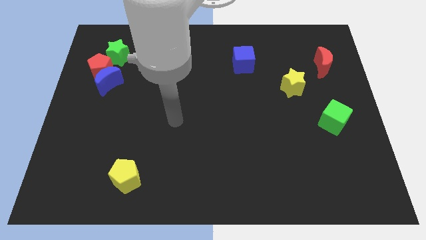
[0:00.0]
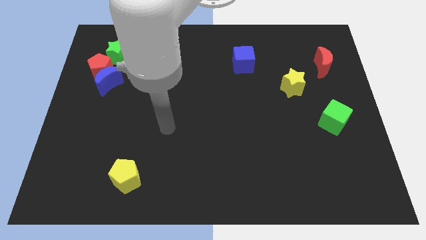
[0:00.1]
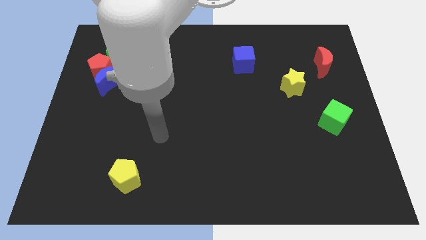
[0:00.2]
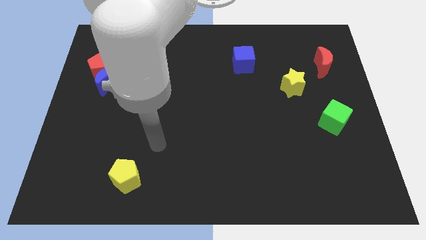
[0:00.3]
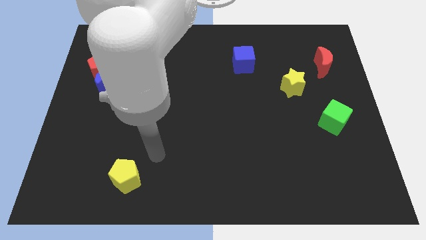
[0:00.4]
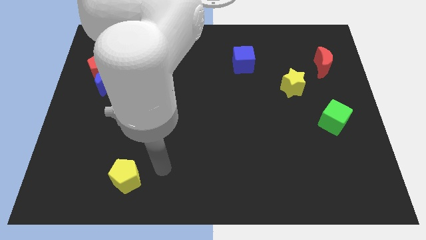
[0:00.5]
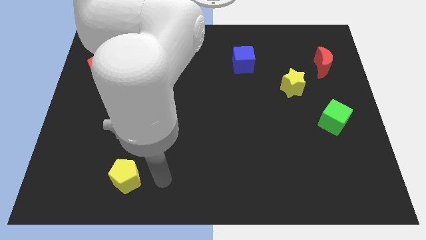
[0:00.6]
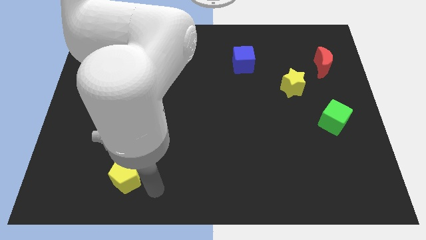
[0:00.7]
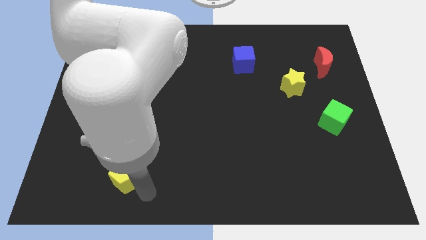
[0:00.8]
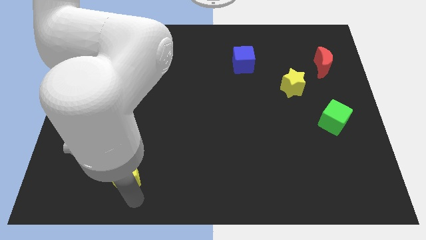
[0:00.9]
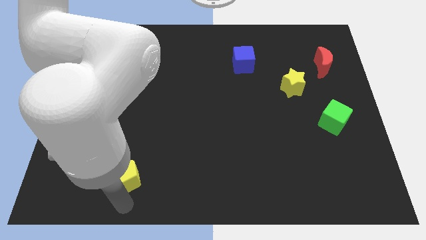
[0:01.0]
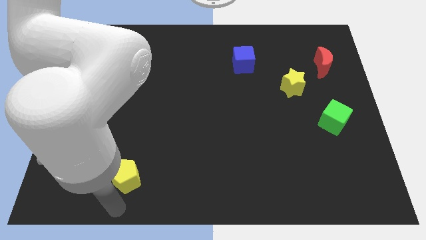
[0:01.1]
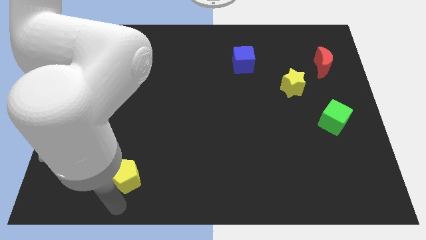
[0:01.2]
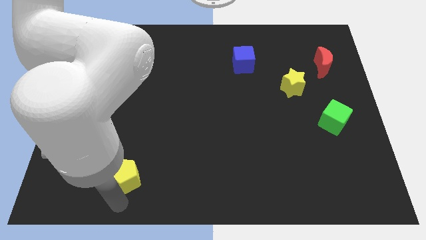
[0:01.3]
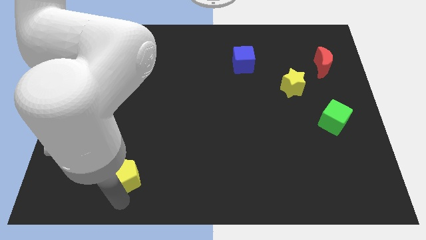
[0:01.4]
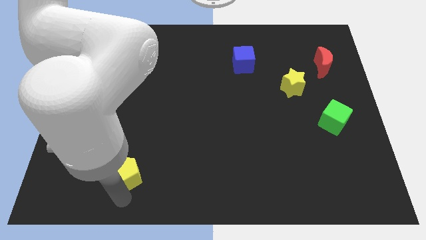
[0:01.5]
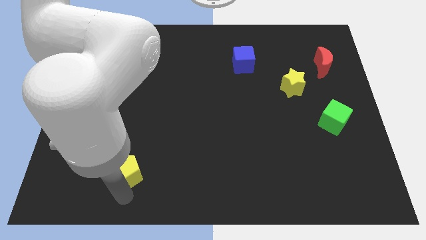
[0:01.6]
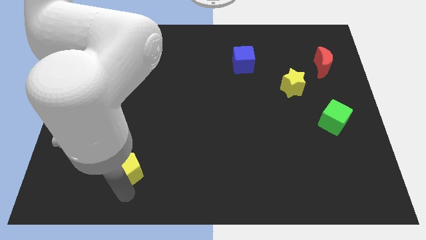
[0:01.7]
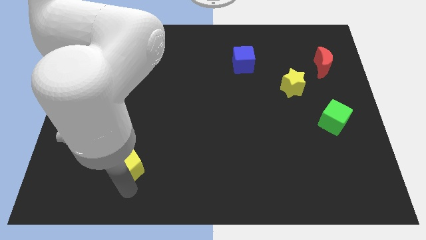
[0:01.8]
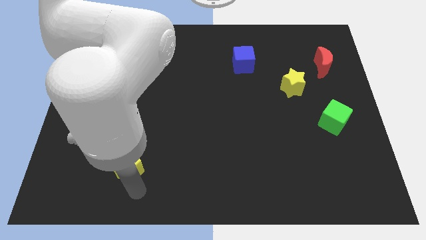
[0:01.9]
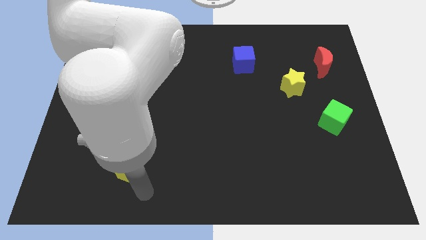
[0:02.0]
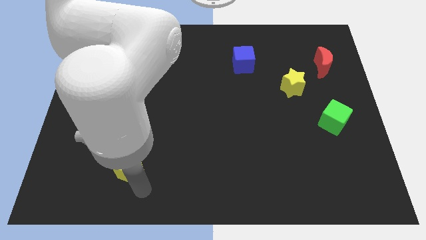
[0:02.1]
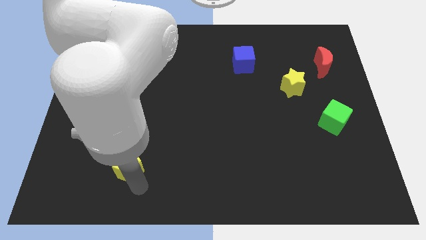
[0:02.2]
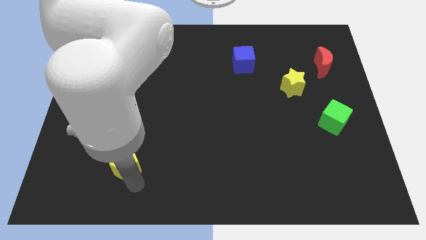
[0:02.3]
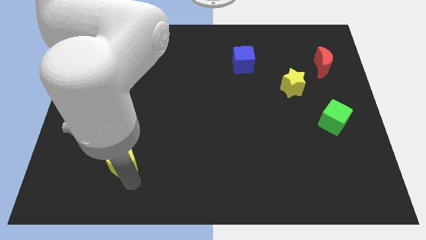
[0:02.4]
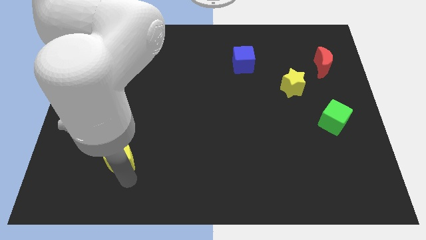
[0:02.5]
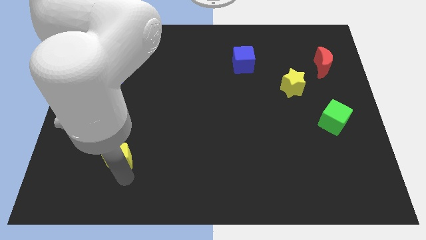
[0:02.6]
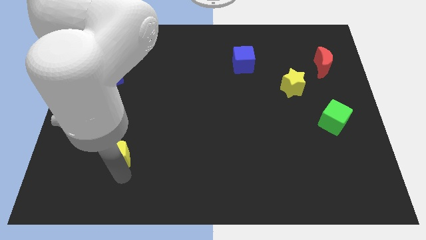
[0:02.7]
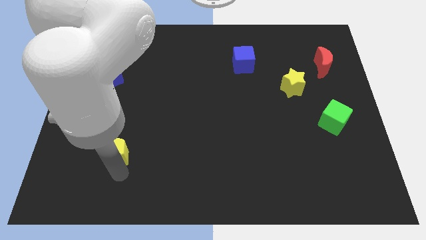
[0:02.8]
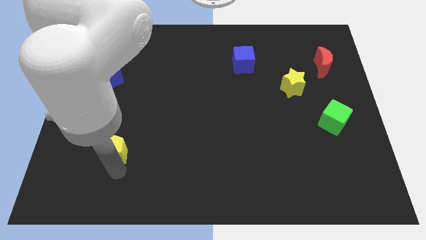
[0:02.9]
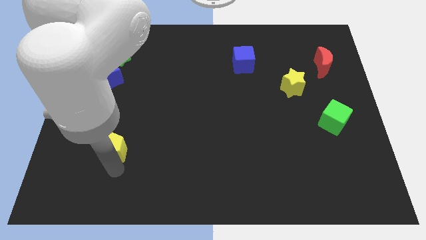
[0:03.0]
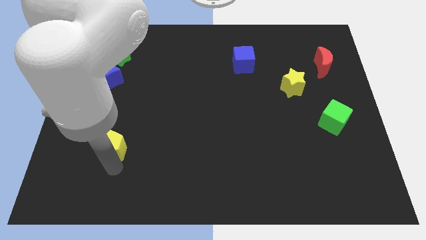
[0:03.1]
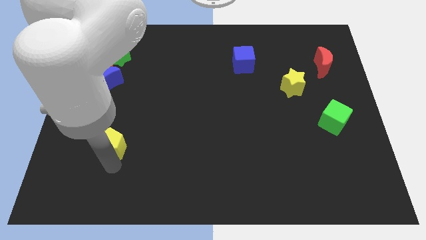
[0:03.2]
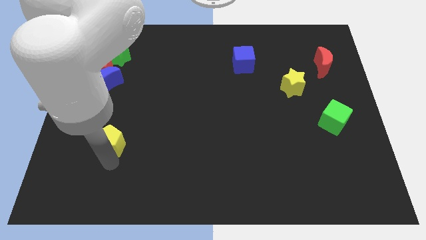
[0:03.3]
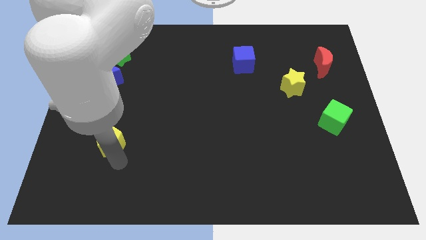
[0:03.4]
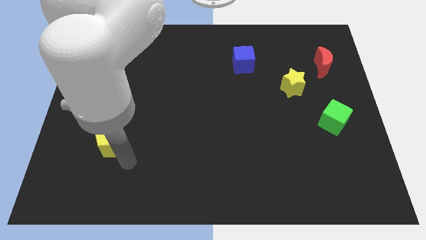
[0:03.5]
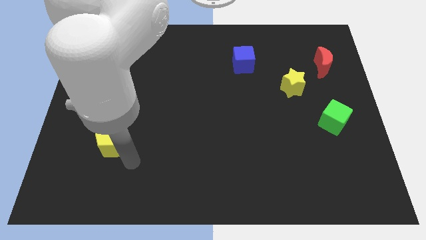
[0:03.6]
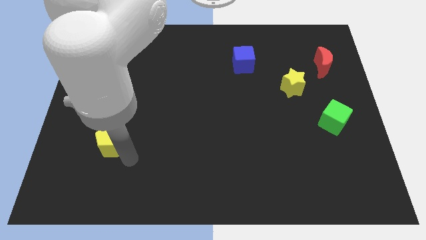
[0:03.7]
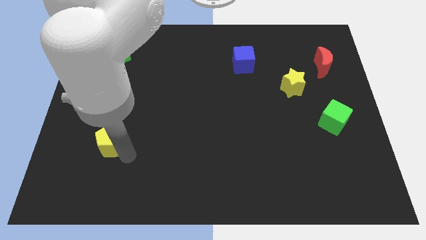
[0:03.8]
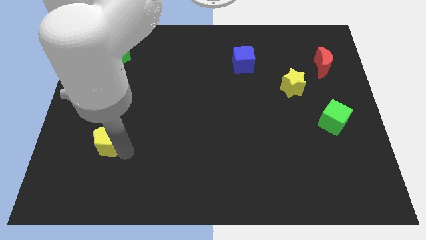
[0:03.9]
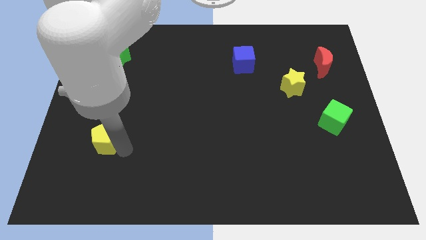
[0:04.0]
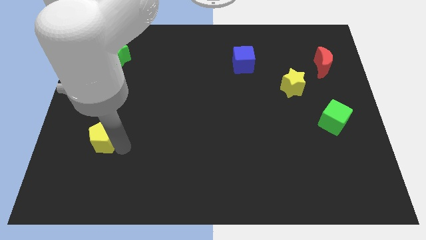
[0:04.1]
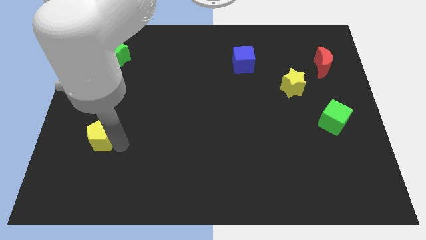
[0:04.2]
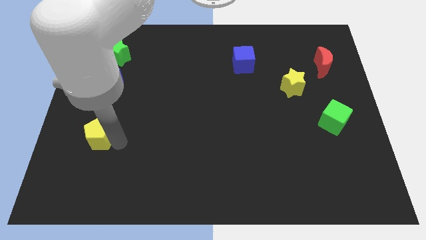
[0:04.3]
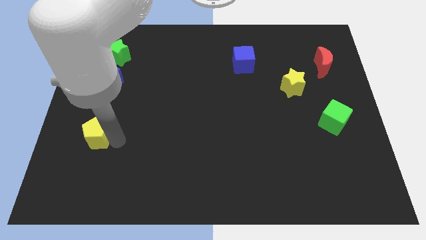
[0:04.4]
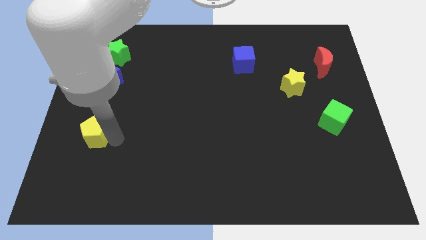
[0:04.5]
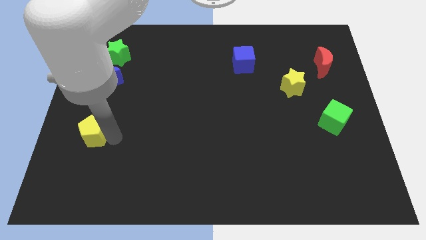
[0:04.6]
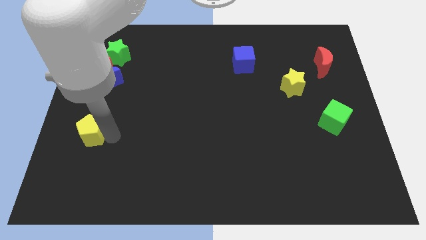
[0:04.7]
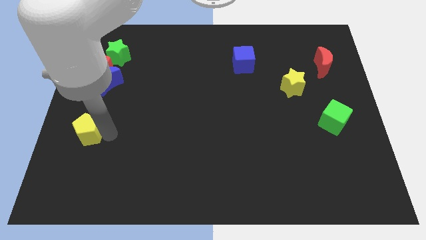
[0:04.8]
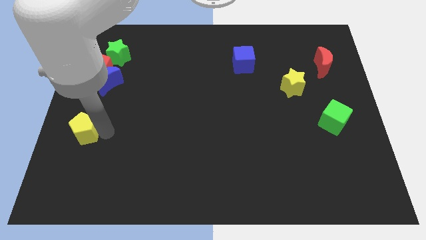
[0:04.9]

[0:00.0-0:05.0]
put the yellow pentagon to the left side

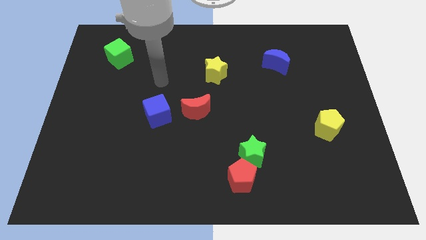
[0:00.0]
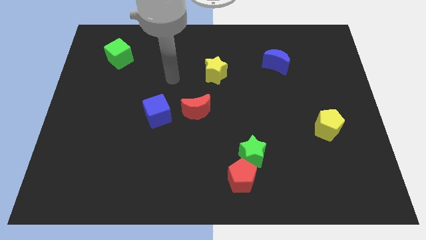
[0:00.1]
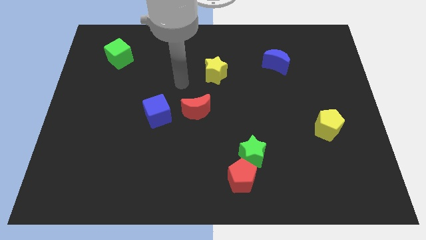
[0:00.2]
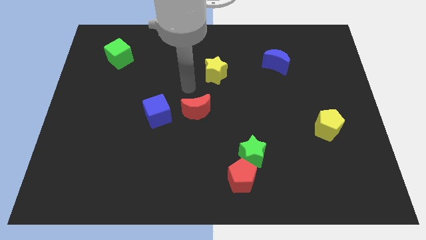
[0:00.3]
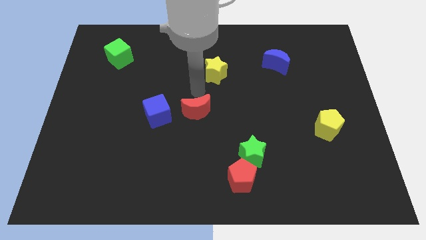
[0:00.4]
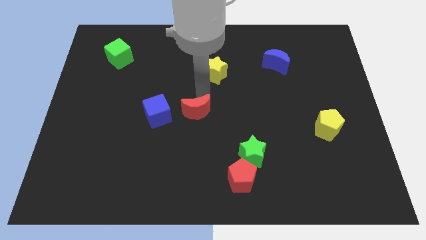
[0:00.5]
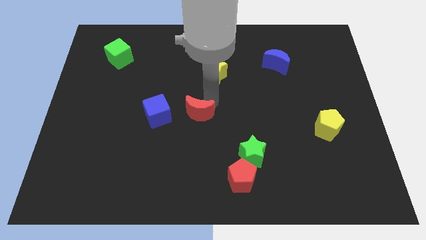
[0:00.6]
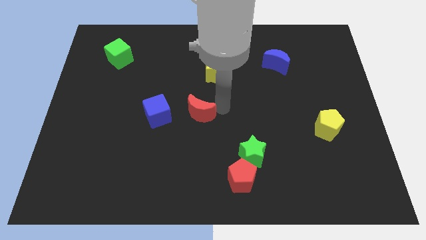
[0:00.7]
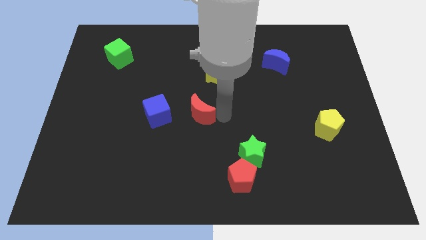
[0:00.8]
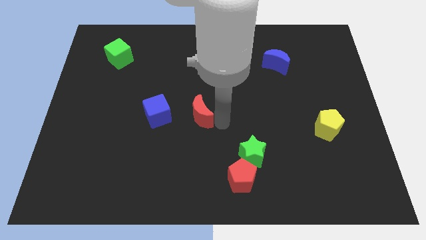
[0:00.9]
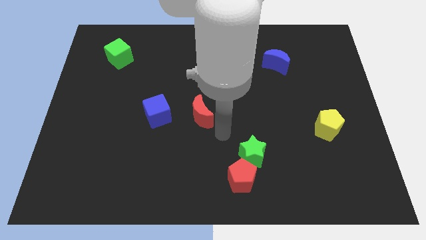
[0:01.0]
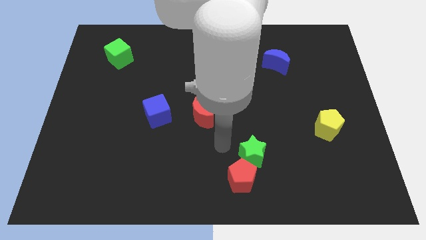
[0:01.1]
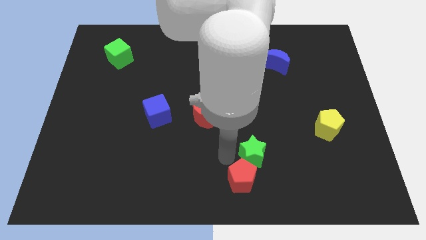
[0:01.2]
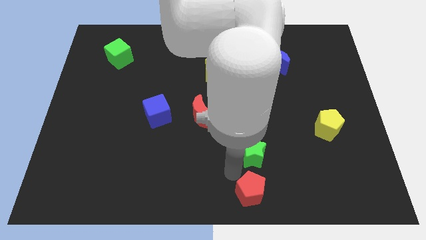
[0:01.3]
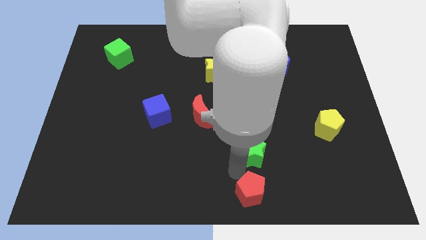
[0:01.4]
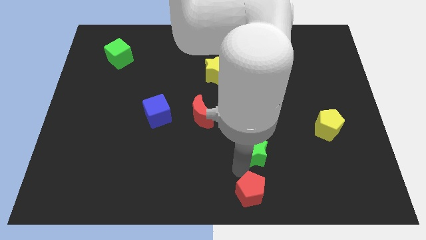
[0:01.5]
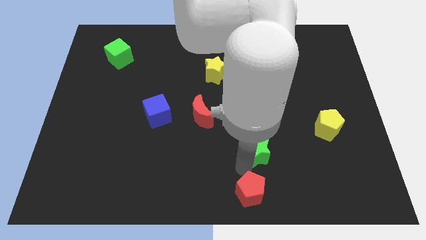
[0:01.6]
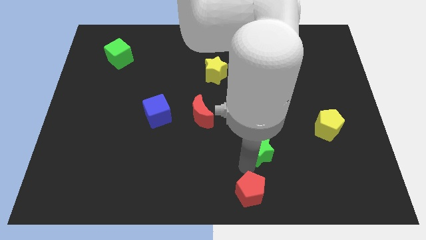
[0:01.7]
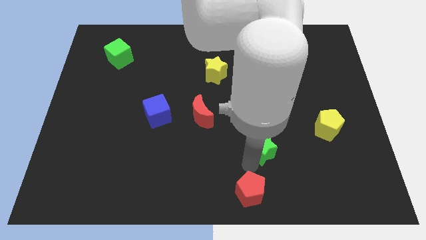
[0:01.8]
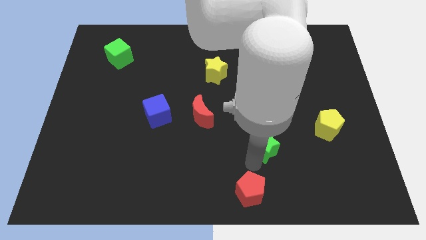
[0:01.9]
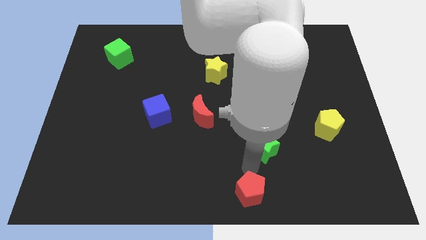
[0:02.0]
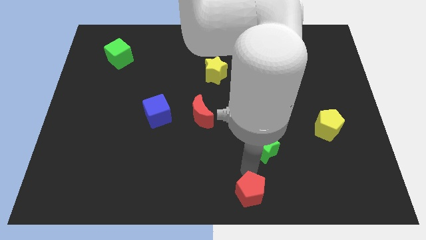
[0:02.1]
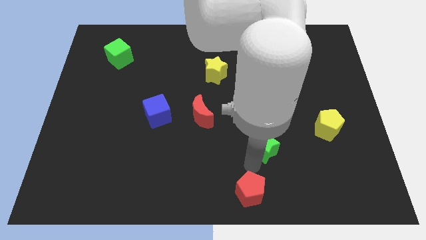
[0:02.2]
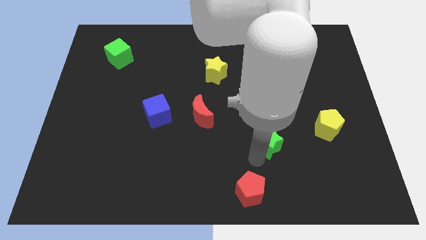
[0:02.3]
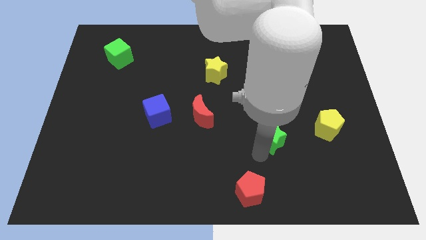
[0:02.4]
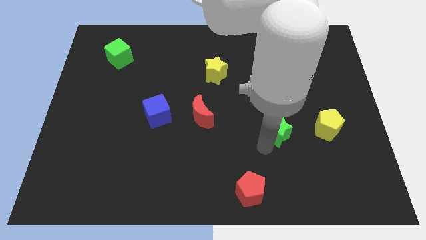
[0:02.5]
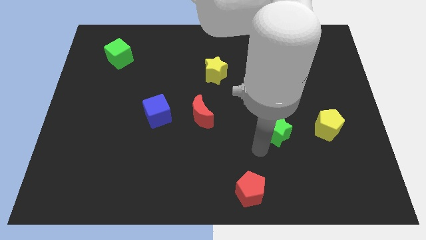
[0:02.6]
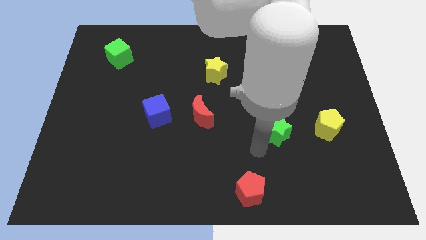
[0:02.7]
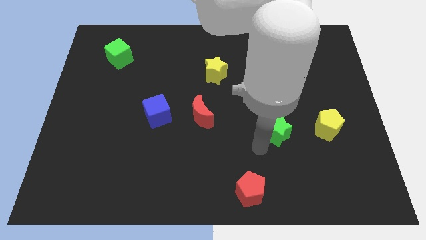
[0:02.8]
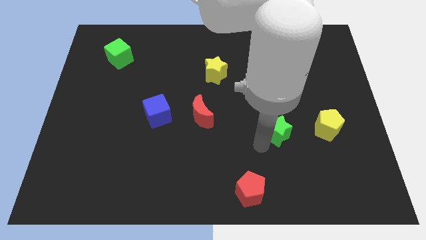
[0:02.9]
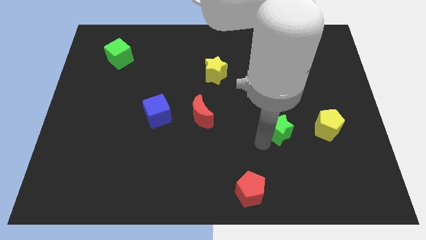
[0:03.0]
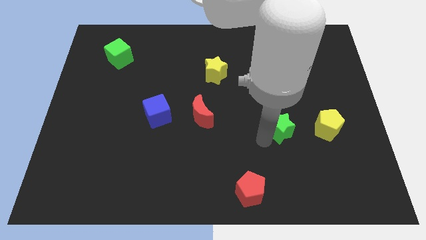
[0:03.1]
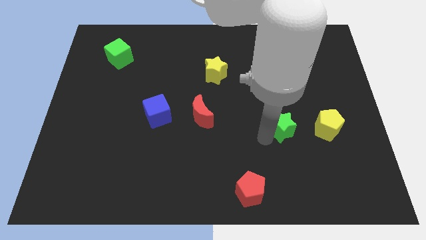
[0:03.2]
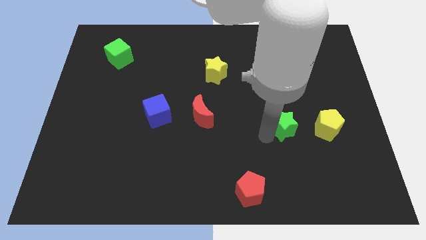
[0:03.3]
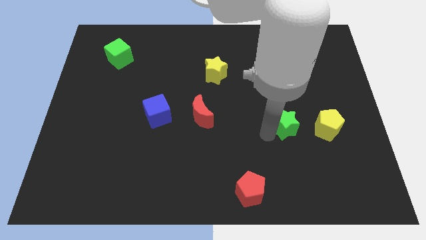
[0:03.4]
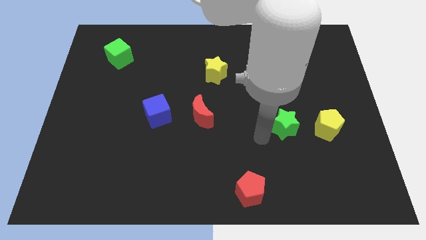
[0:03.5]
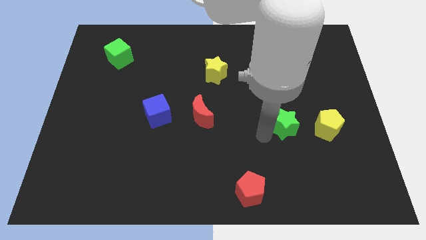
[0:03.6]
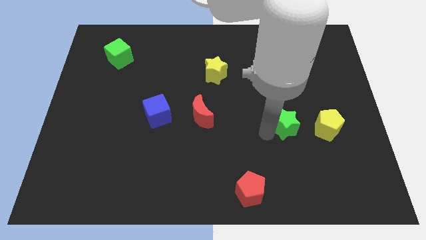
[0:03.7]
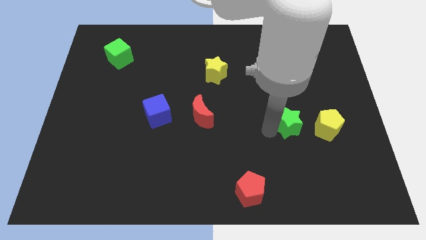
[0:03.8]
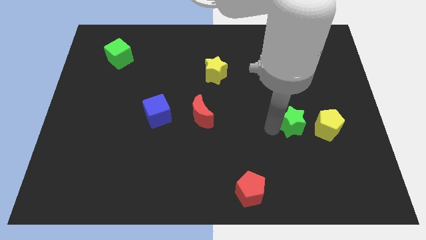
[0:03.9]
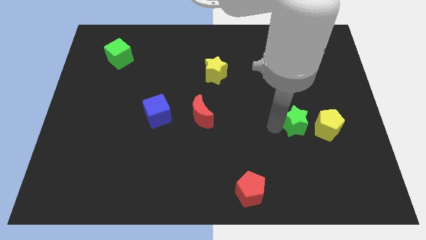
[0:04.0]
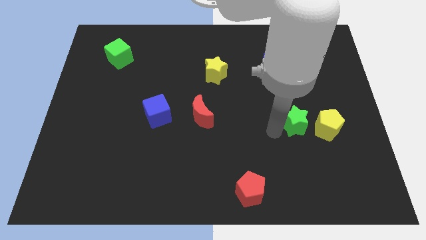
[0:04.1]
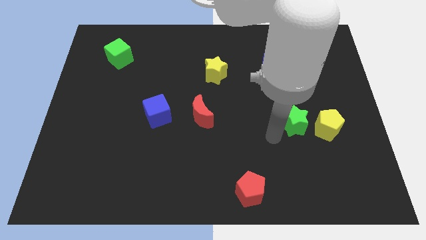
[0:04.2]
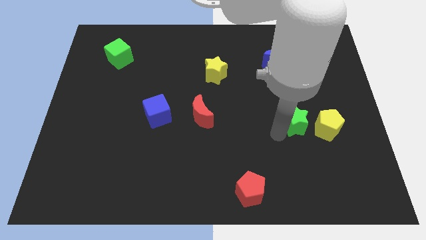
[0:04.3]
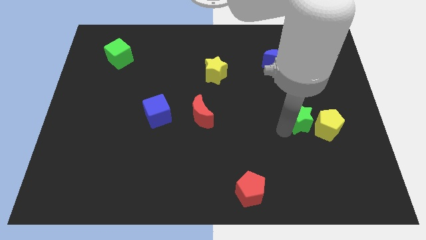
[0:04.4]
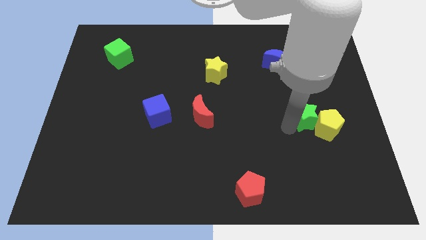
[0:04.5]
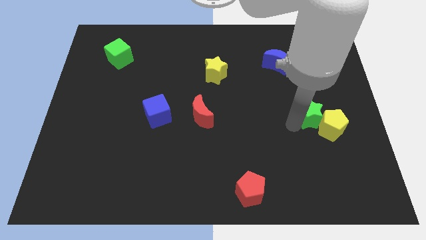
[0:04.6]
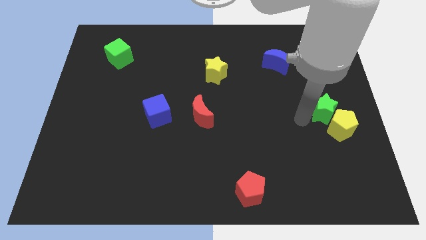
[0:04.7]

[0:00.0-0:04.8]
put the green star to the right side
